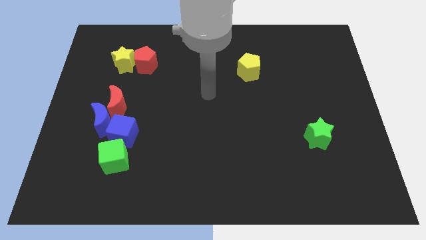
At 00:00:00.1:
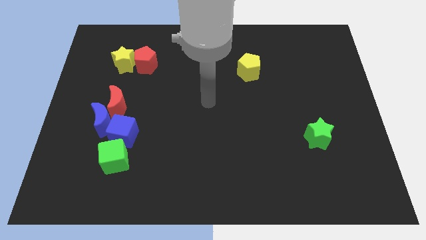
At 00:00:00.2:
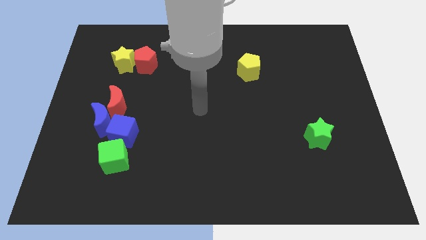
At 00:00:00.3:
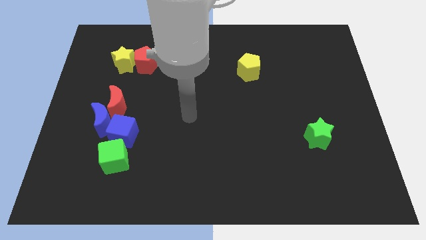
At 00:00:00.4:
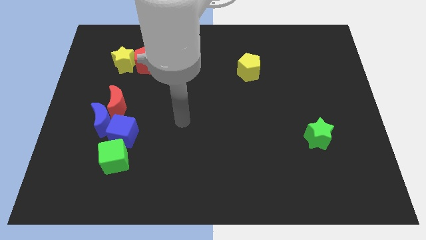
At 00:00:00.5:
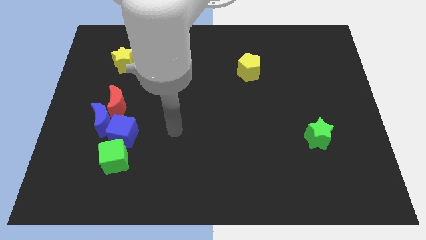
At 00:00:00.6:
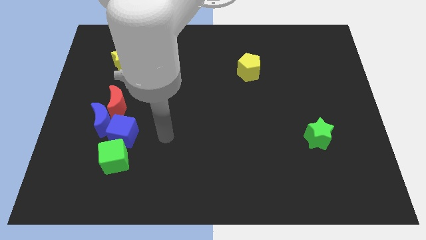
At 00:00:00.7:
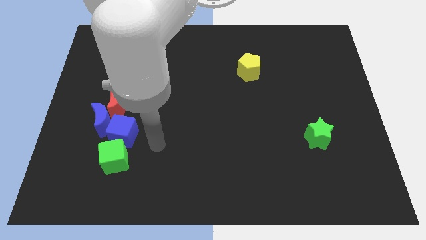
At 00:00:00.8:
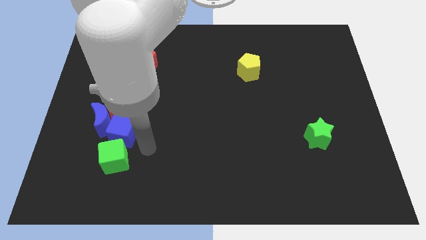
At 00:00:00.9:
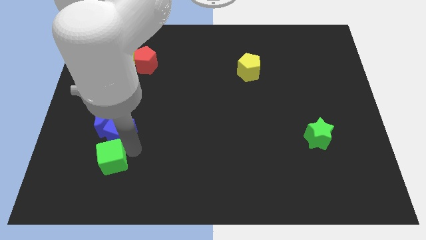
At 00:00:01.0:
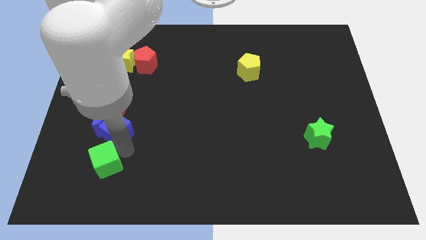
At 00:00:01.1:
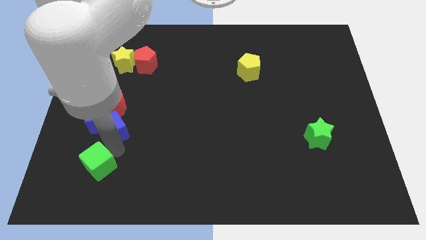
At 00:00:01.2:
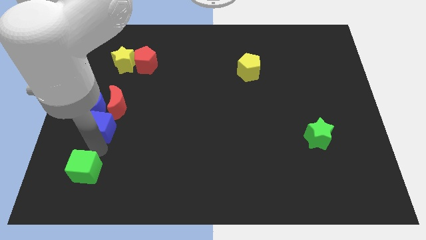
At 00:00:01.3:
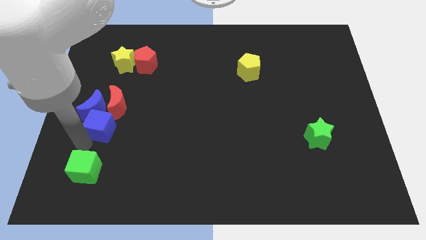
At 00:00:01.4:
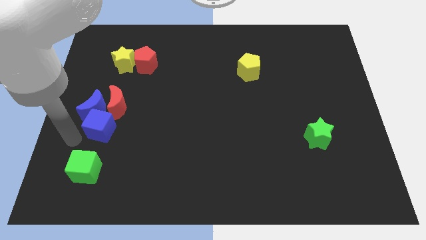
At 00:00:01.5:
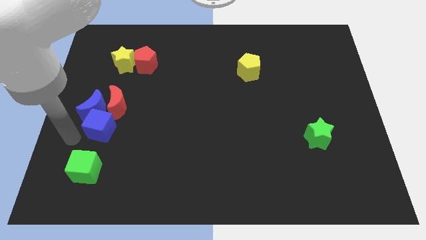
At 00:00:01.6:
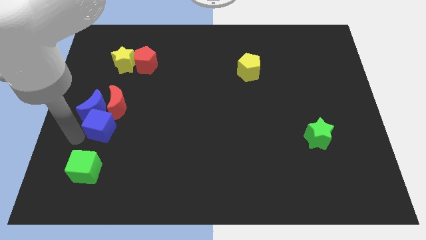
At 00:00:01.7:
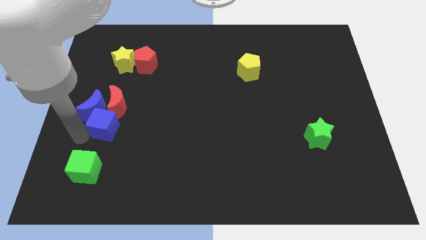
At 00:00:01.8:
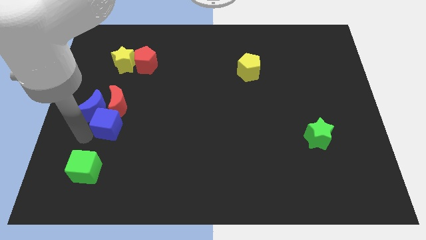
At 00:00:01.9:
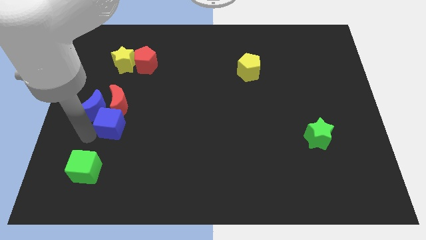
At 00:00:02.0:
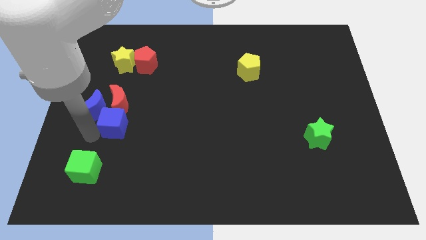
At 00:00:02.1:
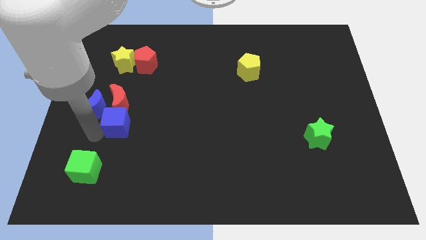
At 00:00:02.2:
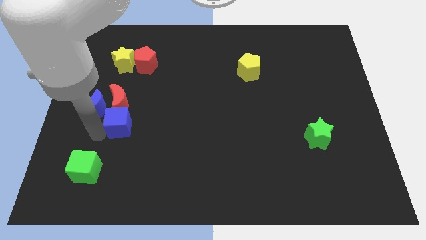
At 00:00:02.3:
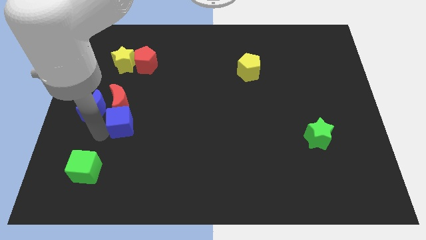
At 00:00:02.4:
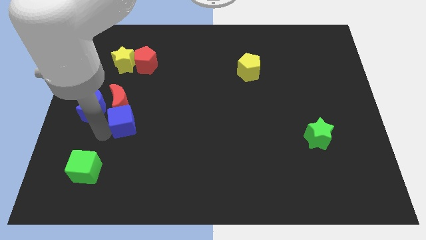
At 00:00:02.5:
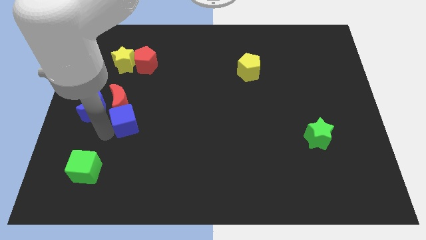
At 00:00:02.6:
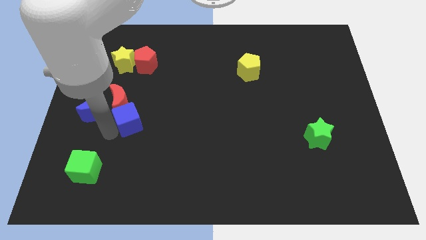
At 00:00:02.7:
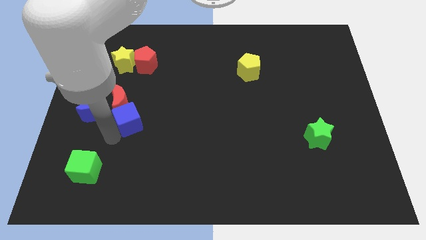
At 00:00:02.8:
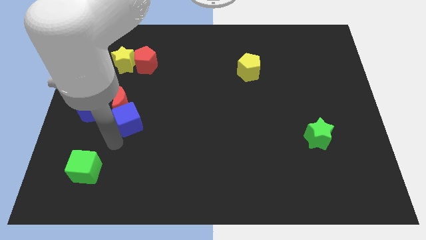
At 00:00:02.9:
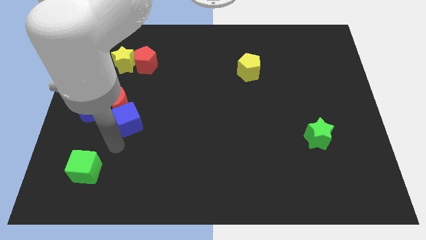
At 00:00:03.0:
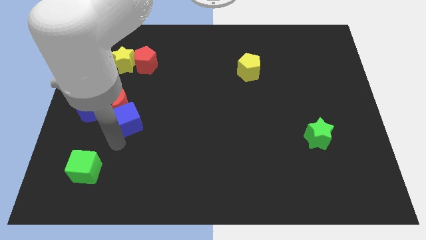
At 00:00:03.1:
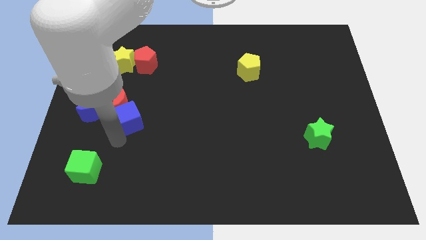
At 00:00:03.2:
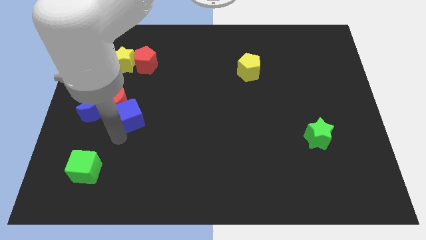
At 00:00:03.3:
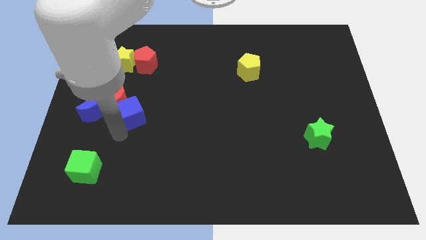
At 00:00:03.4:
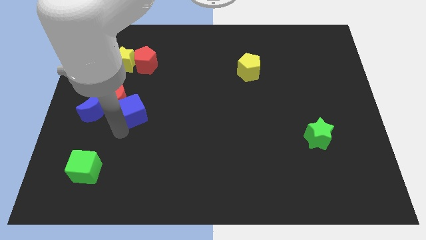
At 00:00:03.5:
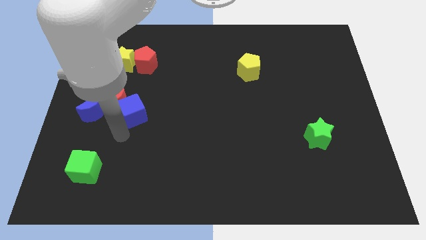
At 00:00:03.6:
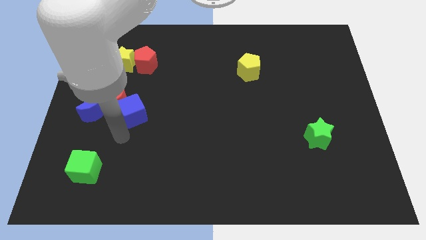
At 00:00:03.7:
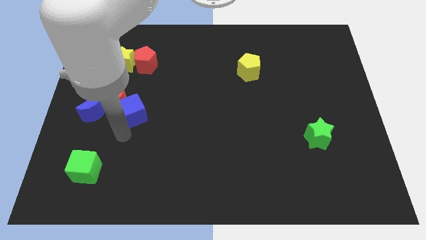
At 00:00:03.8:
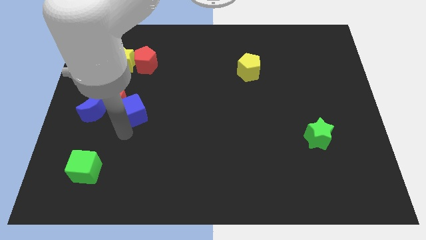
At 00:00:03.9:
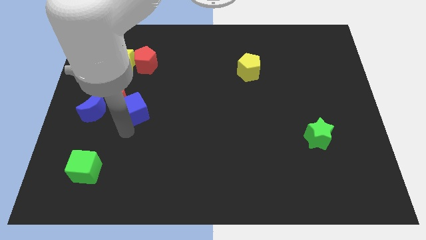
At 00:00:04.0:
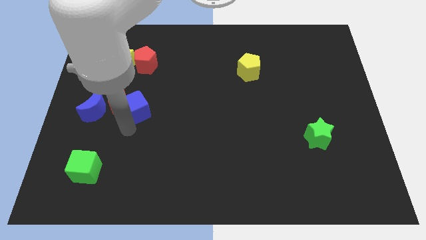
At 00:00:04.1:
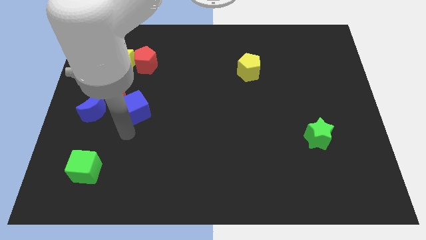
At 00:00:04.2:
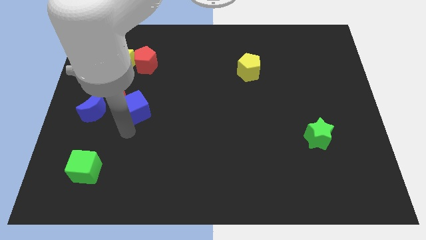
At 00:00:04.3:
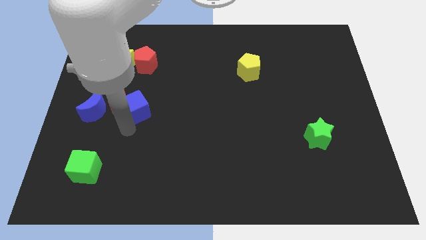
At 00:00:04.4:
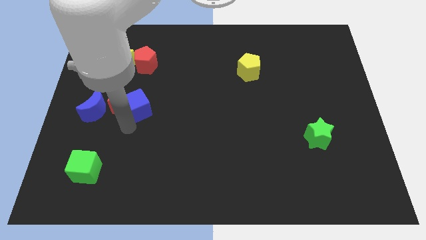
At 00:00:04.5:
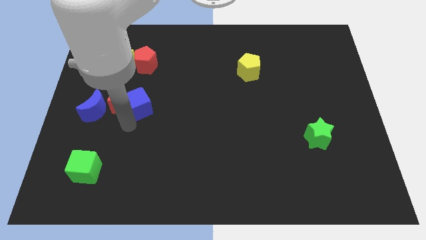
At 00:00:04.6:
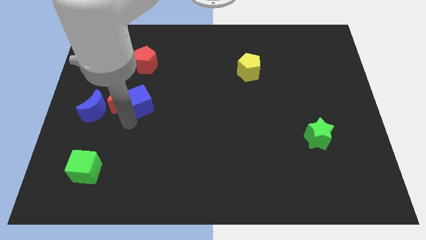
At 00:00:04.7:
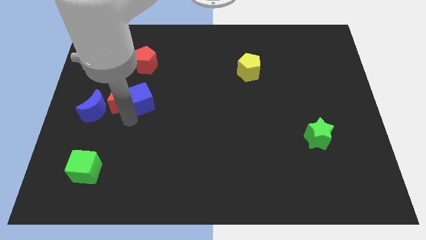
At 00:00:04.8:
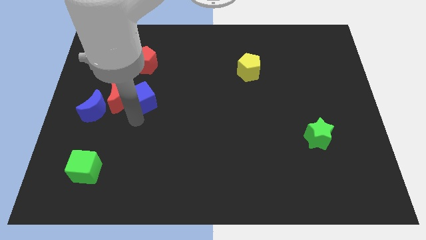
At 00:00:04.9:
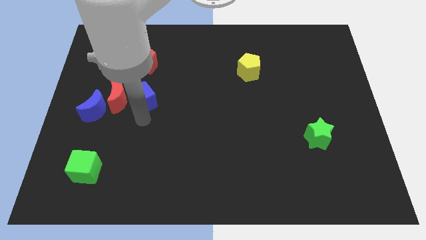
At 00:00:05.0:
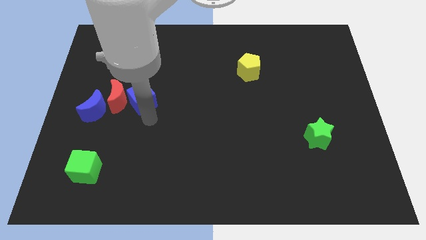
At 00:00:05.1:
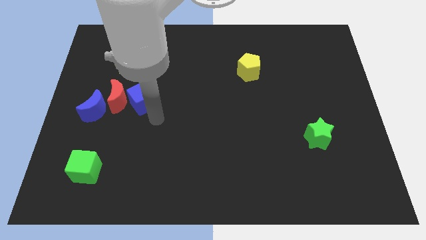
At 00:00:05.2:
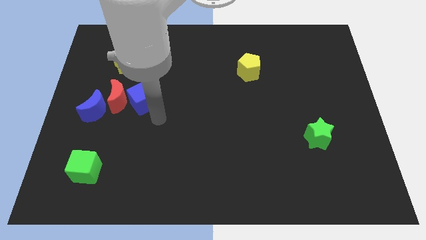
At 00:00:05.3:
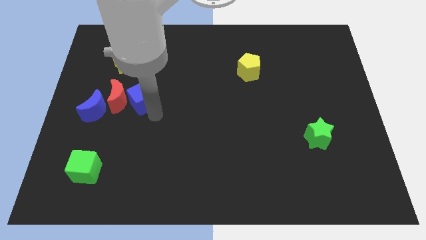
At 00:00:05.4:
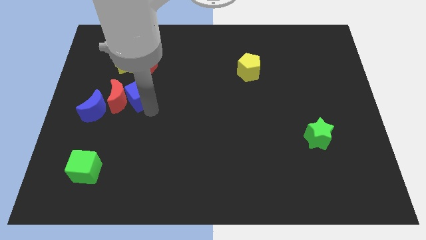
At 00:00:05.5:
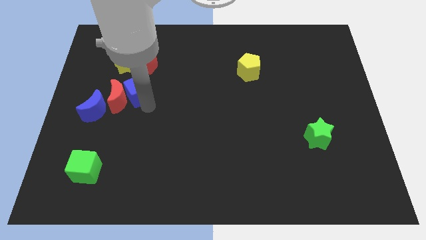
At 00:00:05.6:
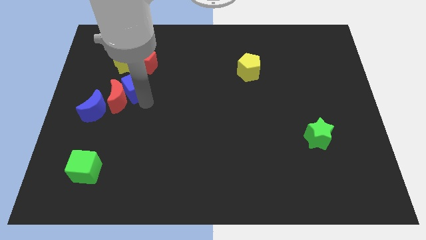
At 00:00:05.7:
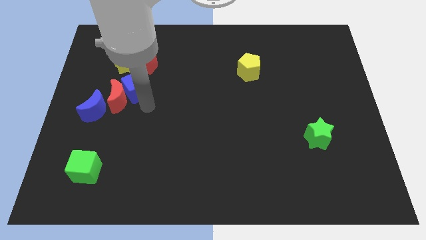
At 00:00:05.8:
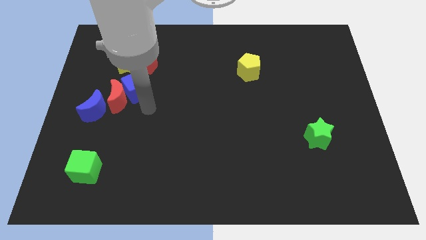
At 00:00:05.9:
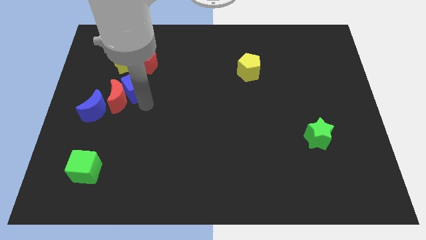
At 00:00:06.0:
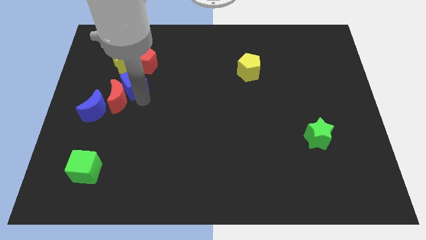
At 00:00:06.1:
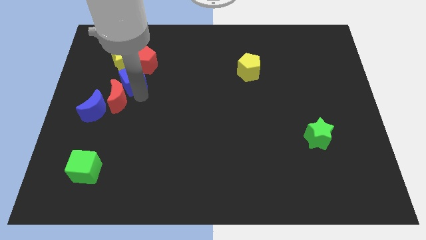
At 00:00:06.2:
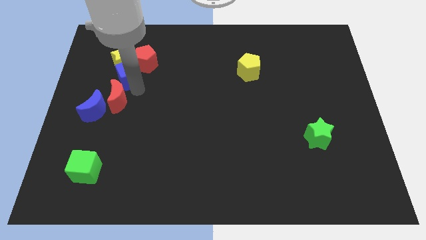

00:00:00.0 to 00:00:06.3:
move the blue cube close to the yellow star
